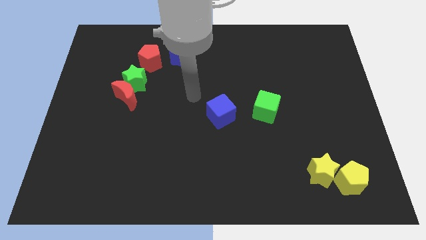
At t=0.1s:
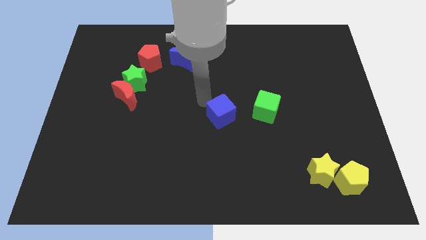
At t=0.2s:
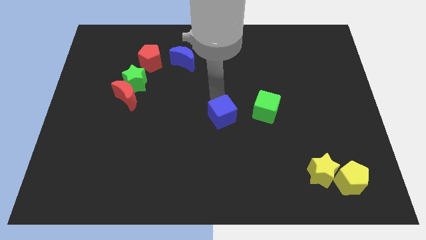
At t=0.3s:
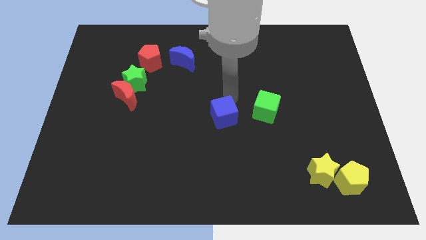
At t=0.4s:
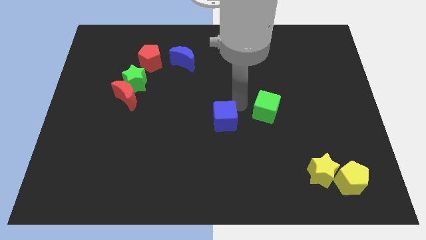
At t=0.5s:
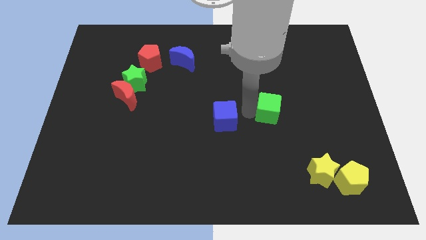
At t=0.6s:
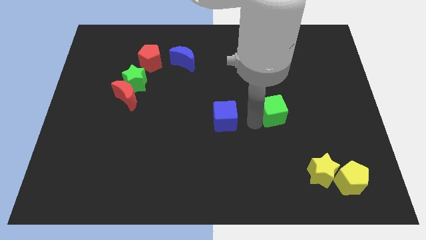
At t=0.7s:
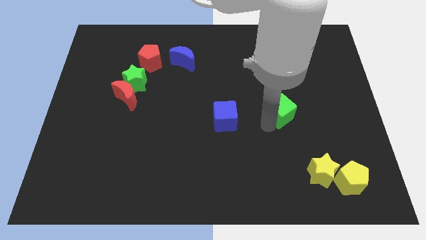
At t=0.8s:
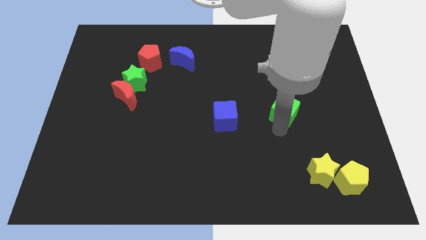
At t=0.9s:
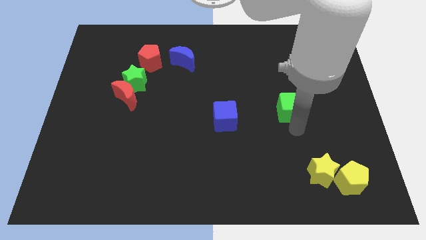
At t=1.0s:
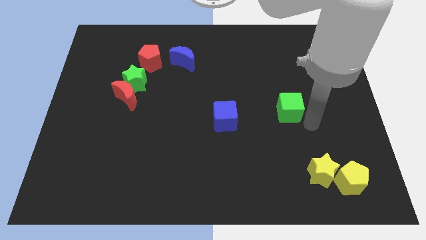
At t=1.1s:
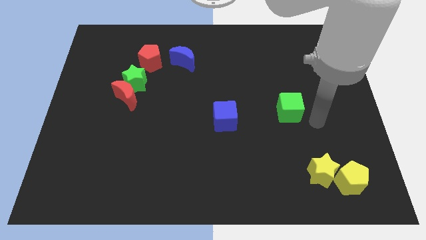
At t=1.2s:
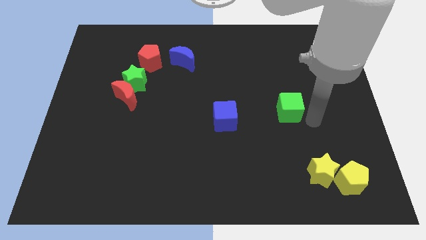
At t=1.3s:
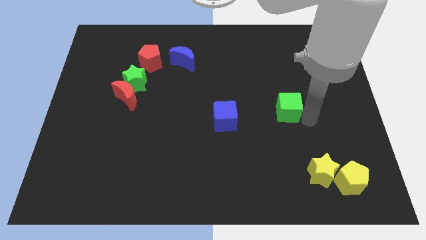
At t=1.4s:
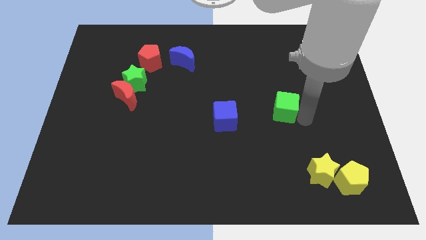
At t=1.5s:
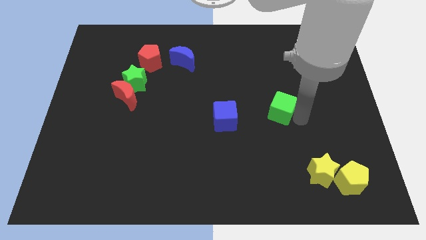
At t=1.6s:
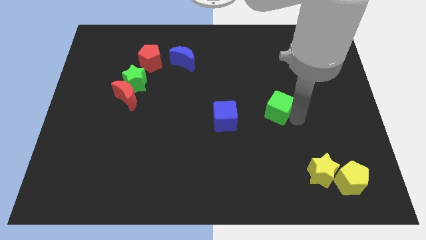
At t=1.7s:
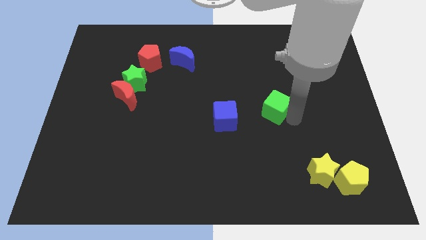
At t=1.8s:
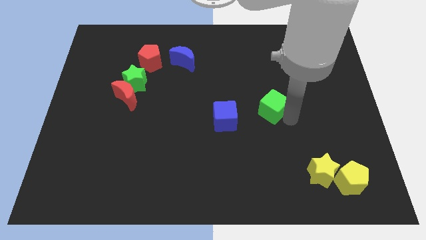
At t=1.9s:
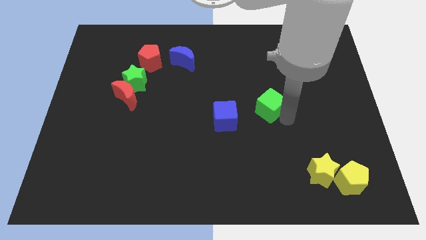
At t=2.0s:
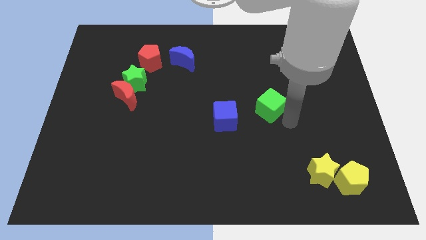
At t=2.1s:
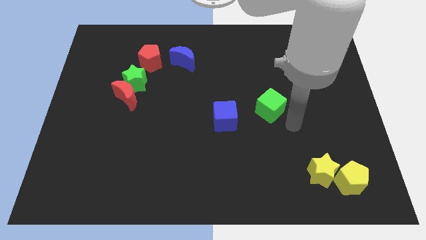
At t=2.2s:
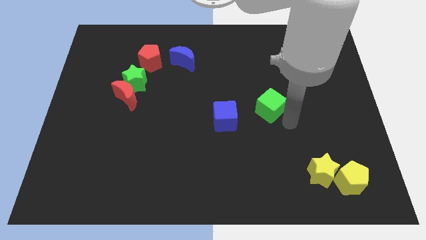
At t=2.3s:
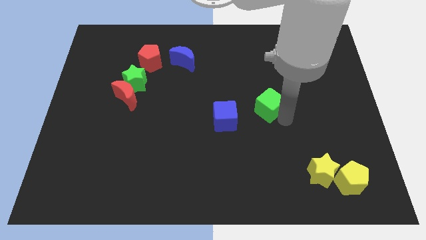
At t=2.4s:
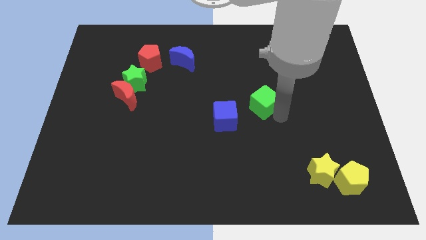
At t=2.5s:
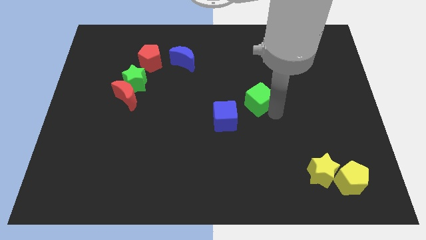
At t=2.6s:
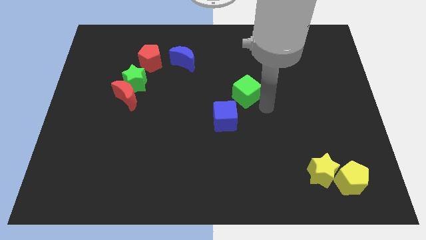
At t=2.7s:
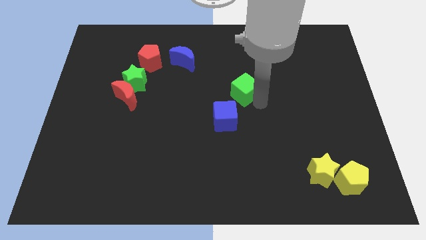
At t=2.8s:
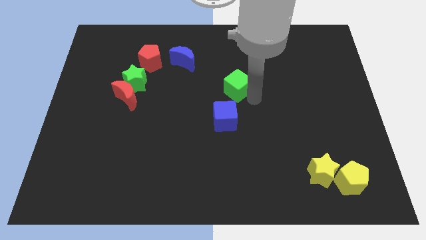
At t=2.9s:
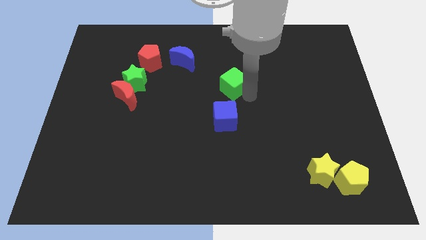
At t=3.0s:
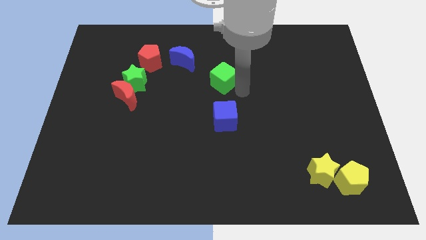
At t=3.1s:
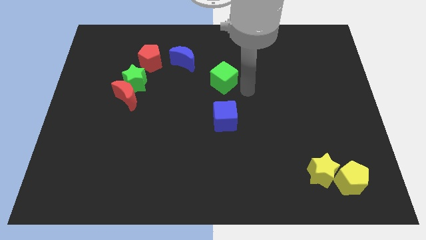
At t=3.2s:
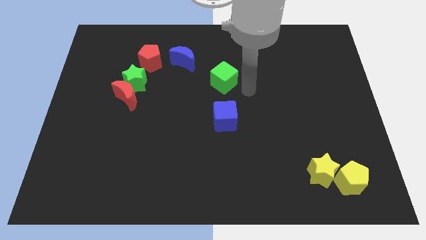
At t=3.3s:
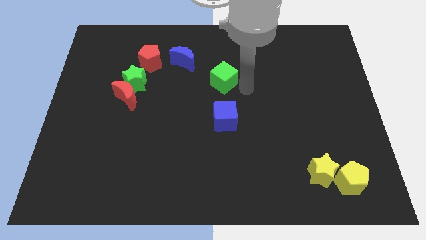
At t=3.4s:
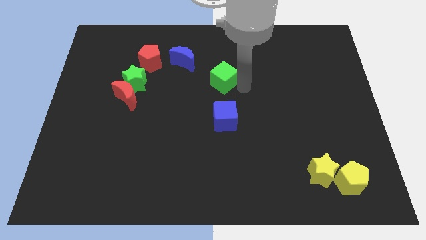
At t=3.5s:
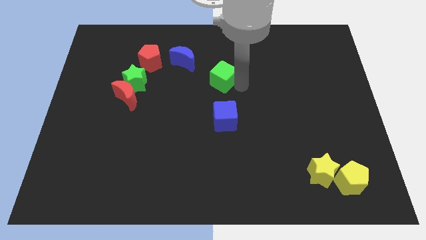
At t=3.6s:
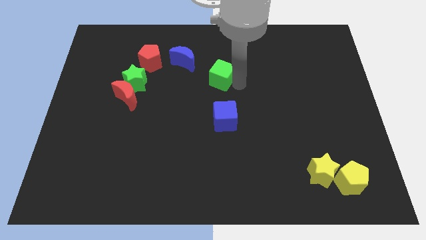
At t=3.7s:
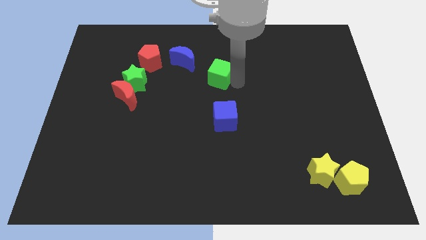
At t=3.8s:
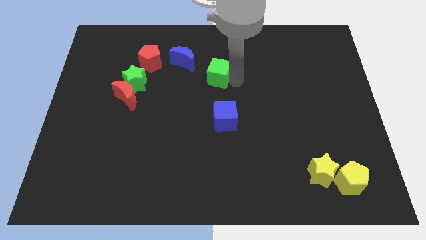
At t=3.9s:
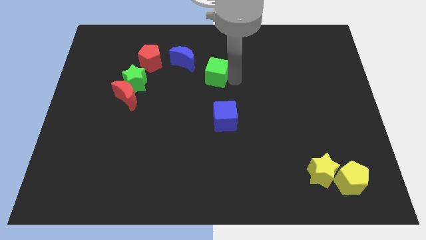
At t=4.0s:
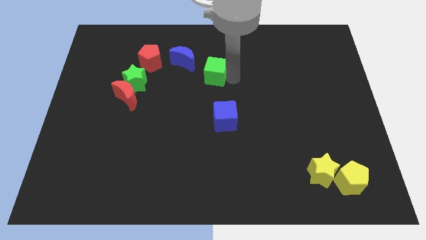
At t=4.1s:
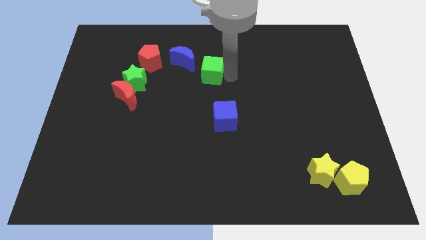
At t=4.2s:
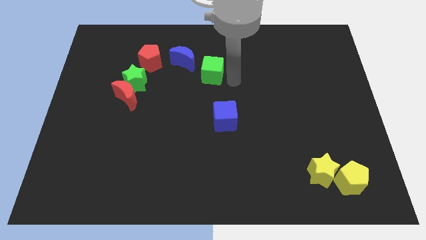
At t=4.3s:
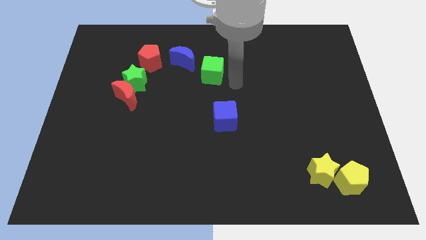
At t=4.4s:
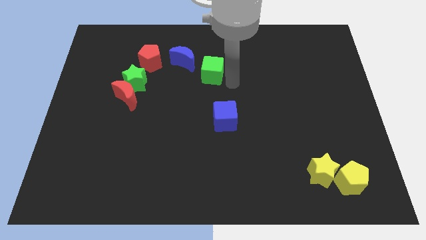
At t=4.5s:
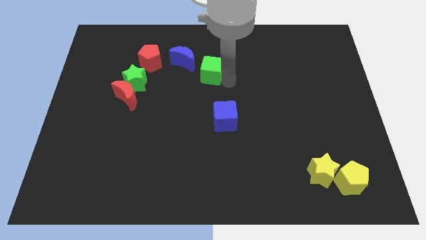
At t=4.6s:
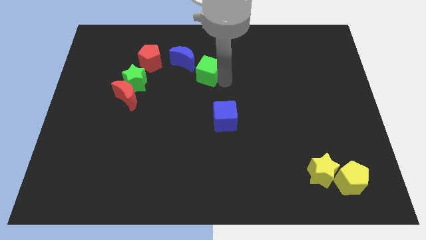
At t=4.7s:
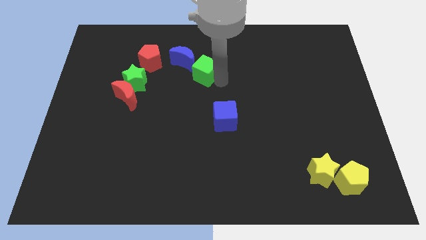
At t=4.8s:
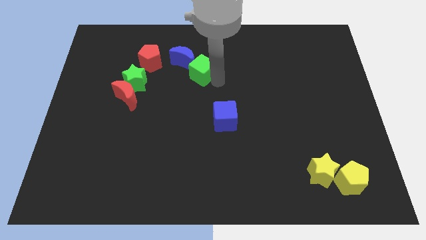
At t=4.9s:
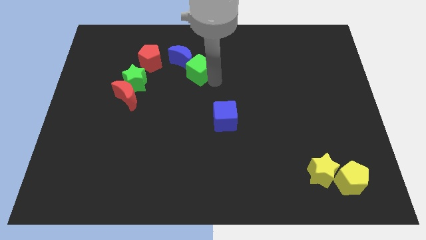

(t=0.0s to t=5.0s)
put the green cube to the blue moon

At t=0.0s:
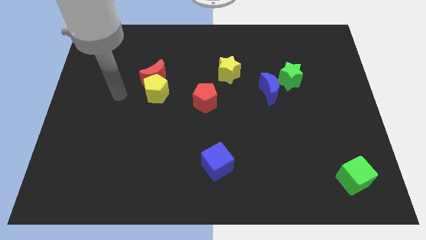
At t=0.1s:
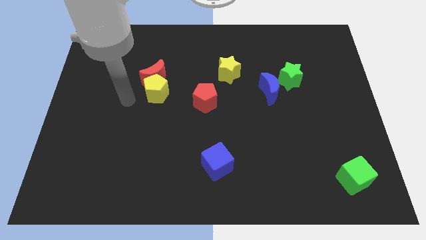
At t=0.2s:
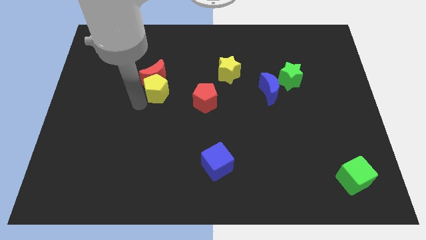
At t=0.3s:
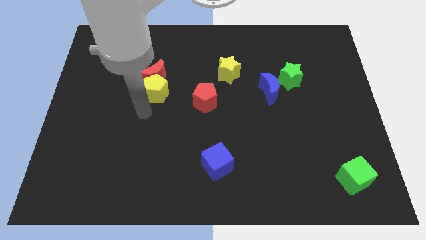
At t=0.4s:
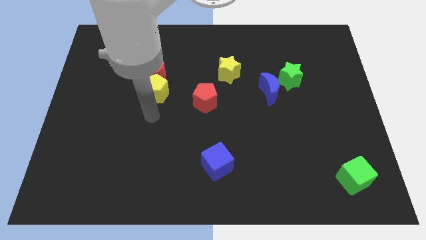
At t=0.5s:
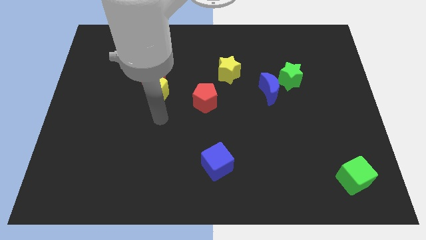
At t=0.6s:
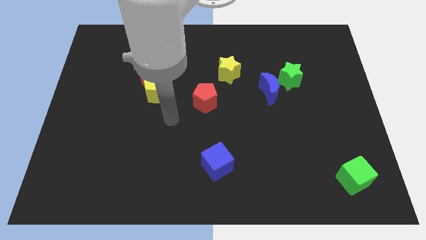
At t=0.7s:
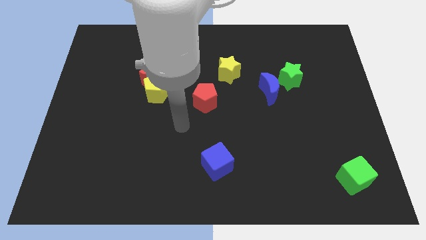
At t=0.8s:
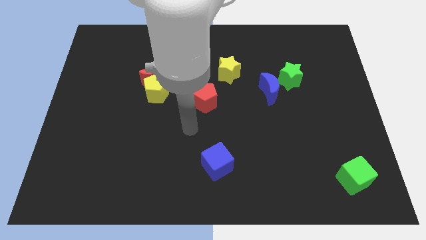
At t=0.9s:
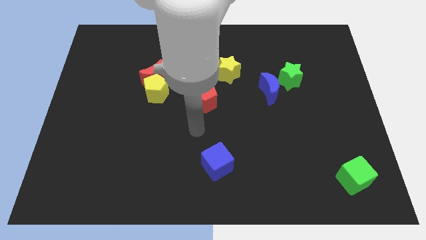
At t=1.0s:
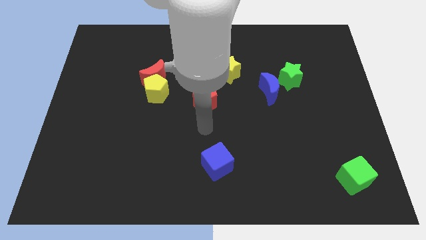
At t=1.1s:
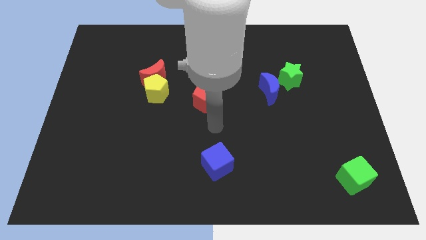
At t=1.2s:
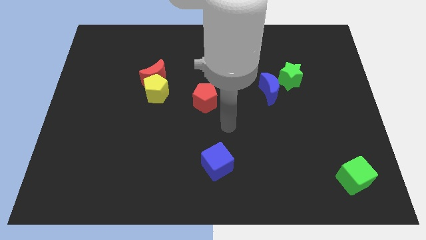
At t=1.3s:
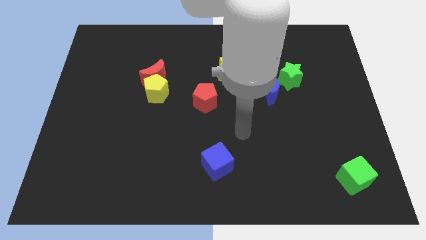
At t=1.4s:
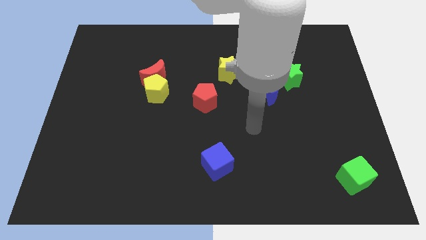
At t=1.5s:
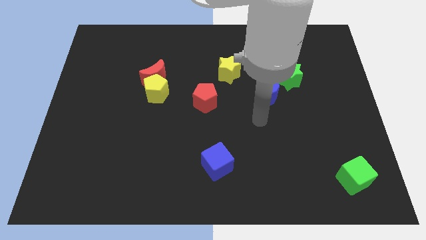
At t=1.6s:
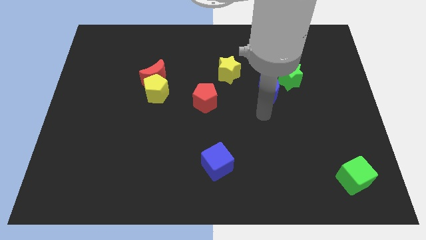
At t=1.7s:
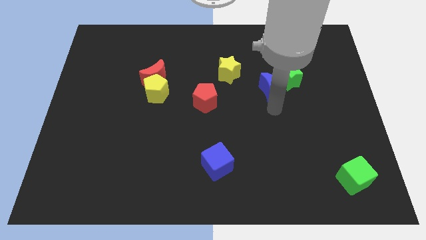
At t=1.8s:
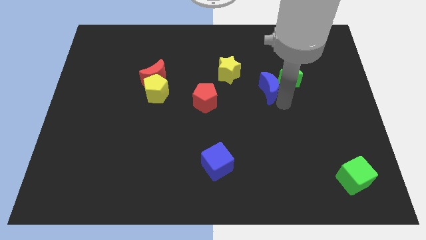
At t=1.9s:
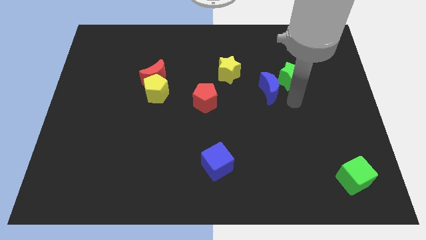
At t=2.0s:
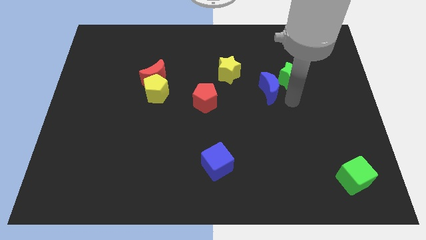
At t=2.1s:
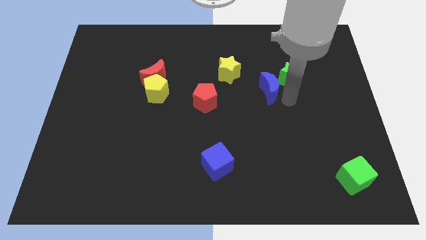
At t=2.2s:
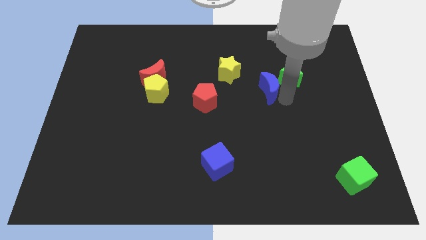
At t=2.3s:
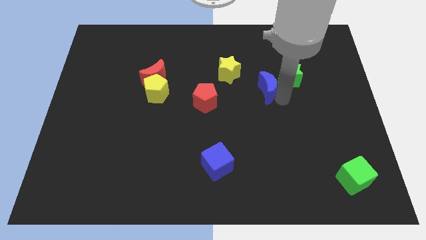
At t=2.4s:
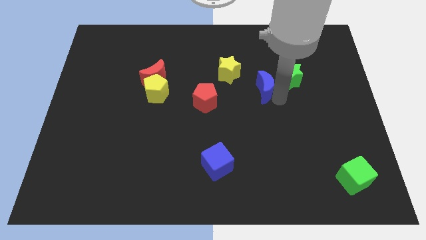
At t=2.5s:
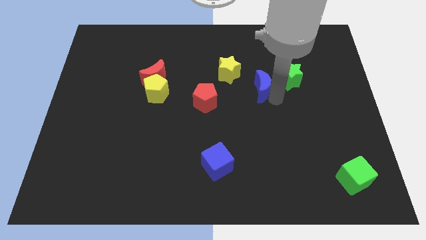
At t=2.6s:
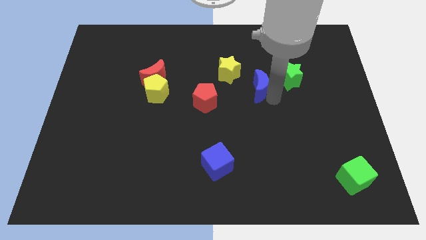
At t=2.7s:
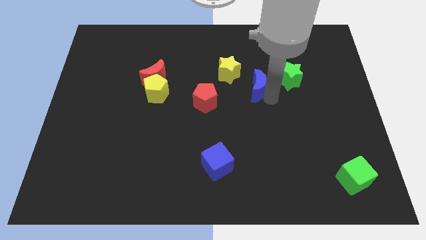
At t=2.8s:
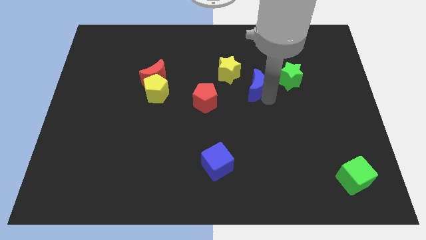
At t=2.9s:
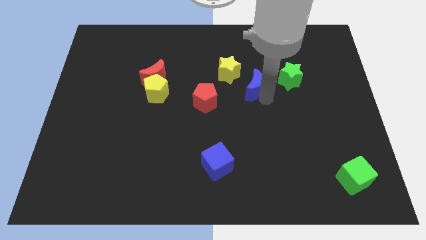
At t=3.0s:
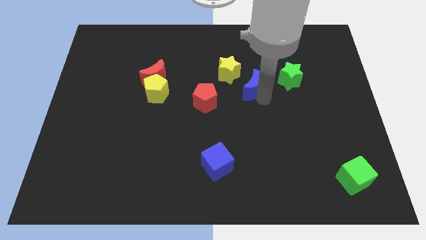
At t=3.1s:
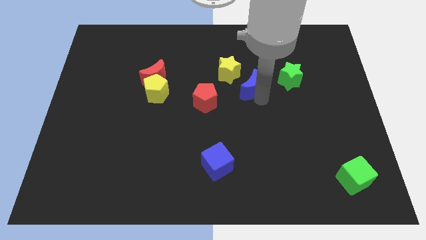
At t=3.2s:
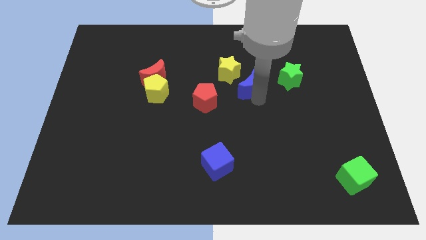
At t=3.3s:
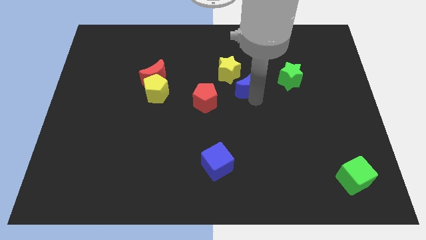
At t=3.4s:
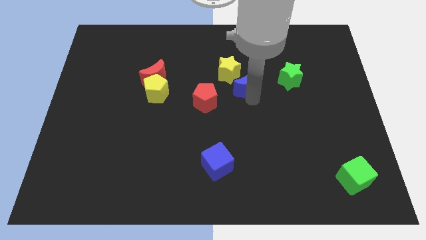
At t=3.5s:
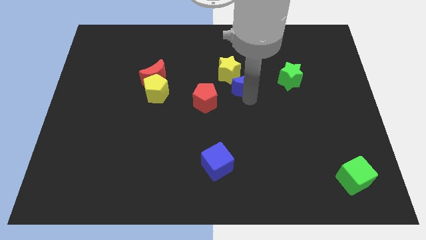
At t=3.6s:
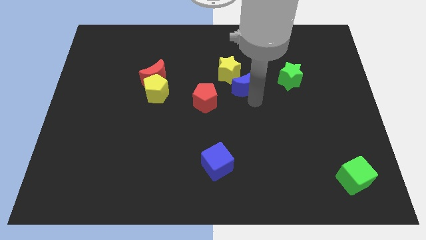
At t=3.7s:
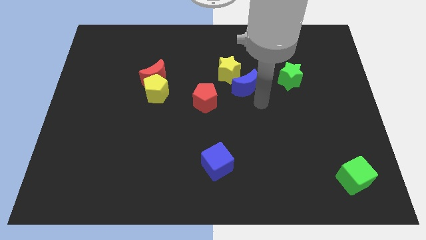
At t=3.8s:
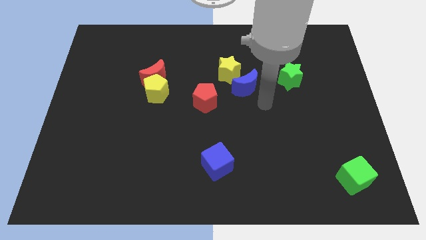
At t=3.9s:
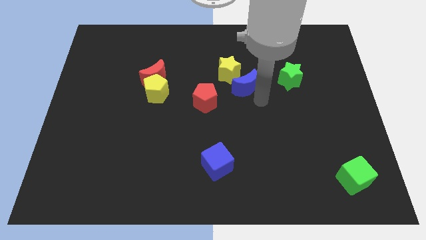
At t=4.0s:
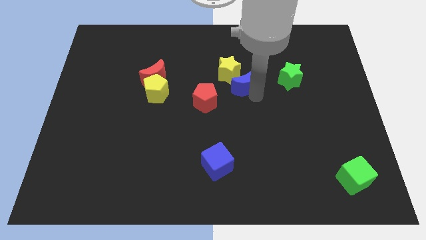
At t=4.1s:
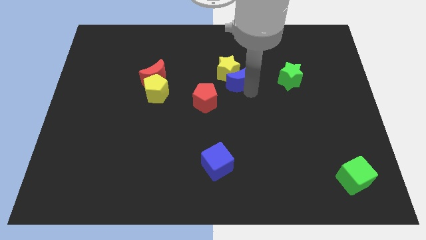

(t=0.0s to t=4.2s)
put the blue moon next to the yellow star
